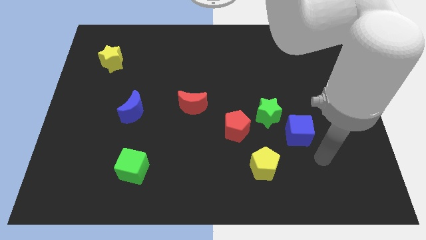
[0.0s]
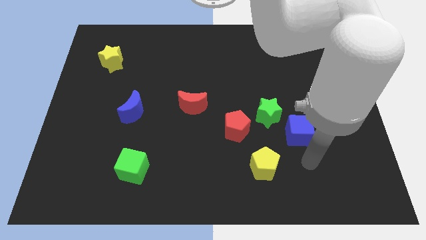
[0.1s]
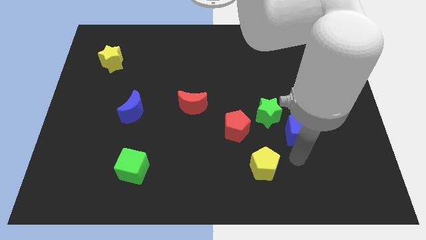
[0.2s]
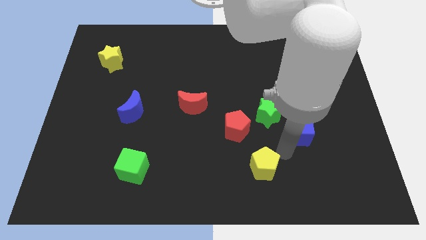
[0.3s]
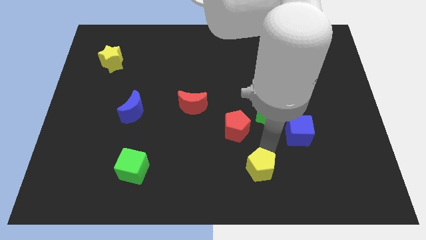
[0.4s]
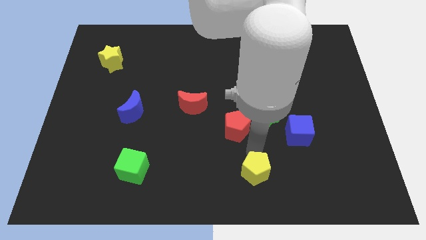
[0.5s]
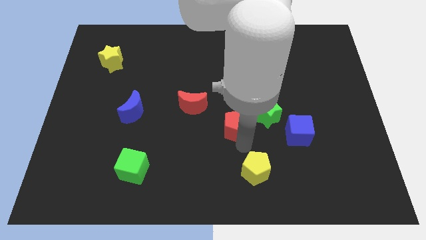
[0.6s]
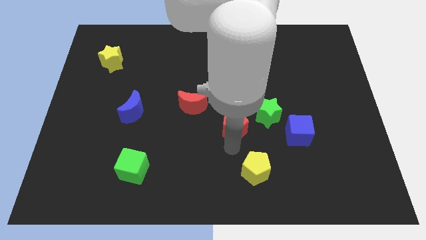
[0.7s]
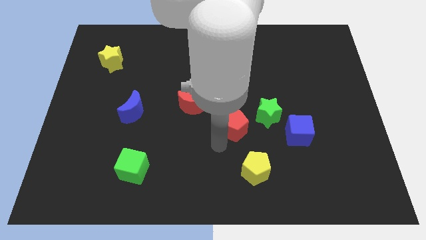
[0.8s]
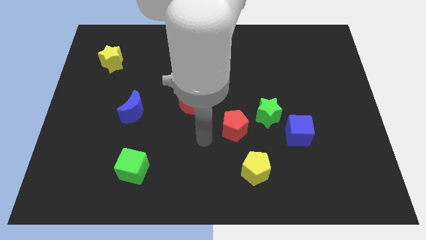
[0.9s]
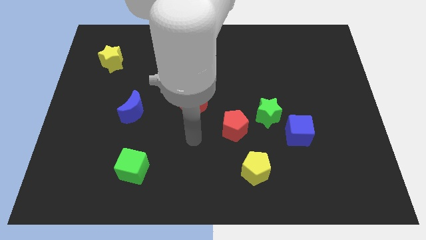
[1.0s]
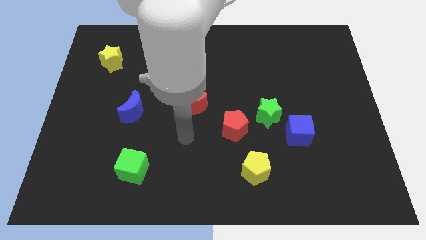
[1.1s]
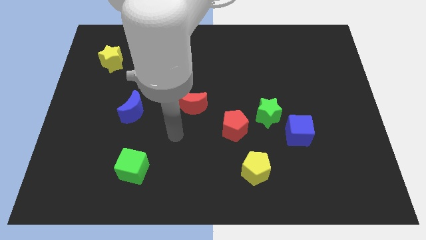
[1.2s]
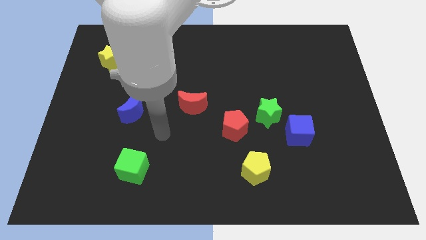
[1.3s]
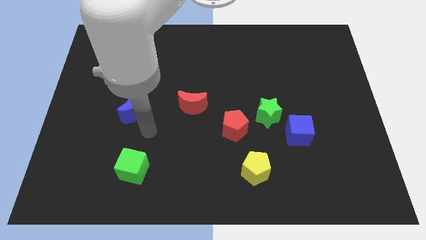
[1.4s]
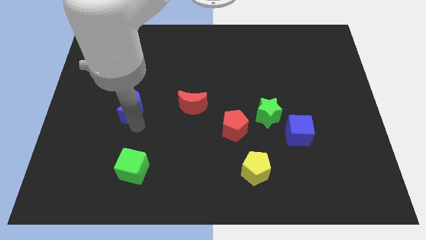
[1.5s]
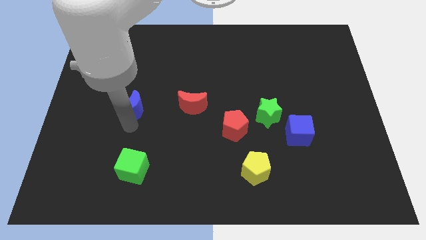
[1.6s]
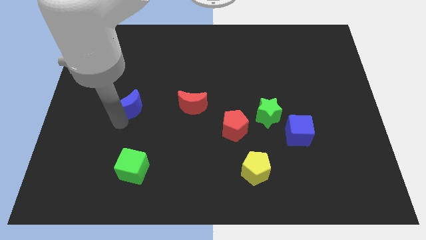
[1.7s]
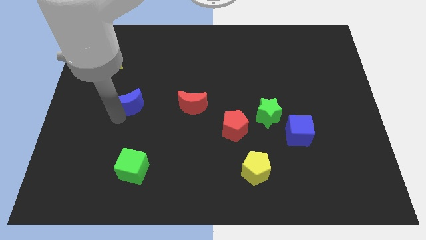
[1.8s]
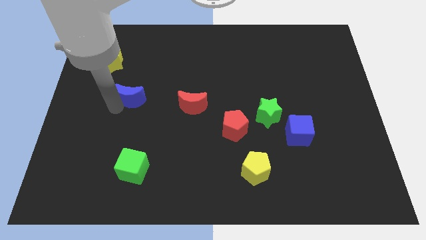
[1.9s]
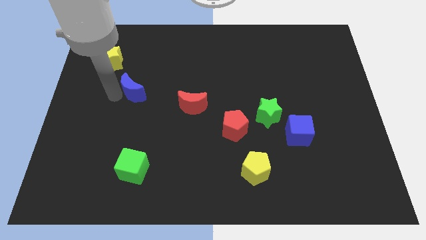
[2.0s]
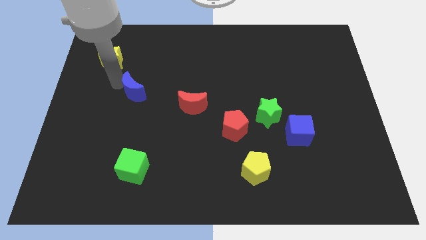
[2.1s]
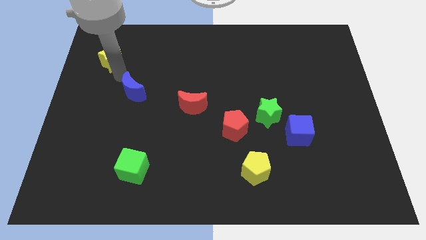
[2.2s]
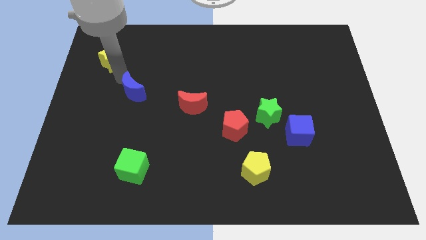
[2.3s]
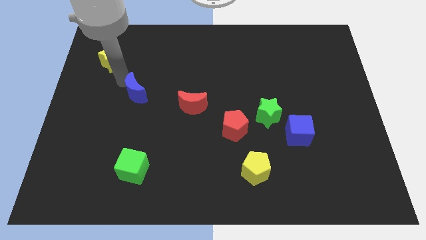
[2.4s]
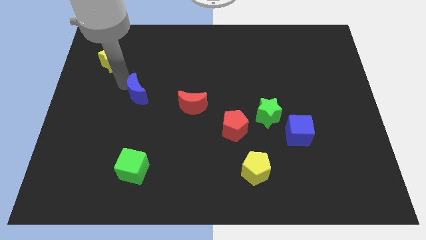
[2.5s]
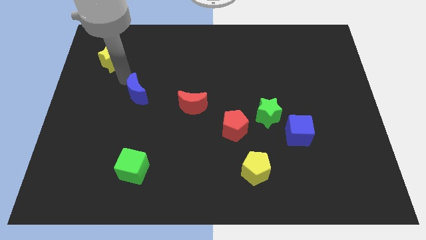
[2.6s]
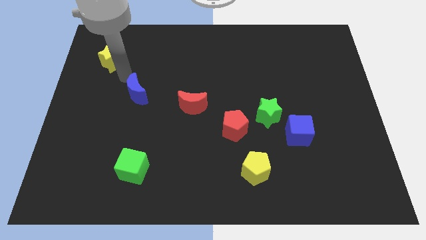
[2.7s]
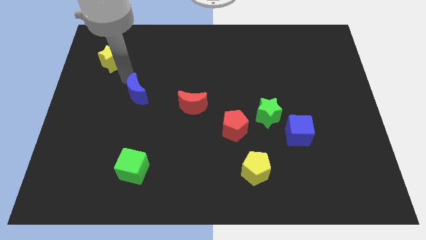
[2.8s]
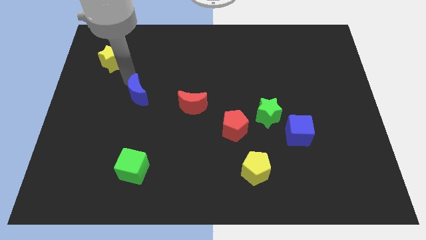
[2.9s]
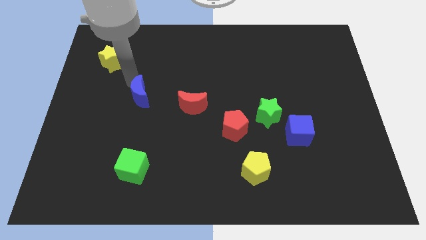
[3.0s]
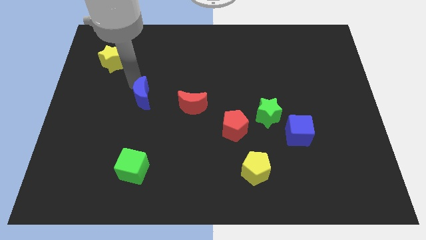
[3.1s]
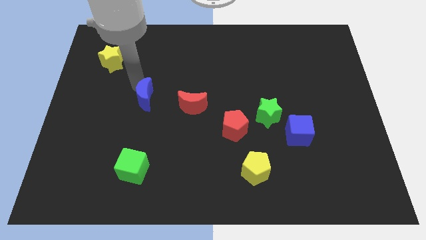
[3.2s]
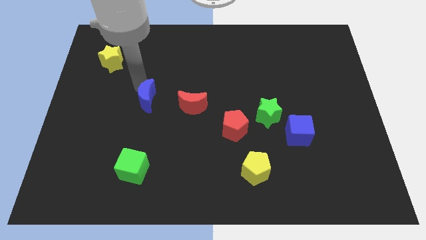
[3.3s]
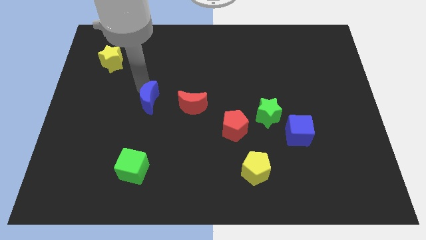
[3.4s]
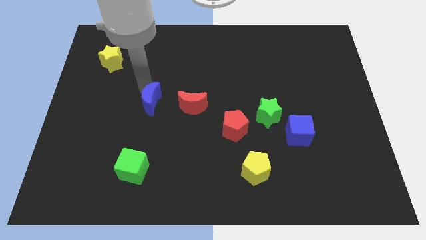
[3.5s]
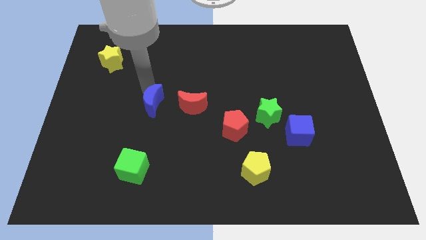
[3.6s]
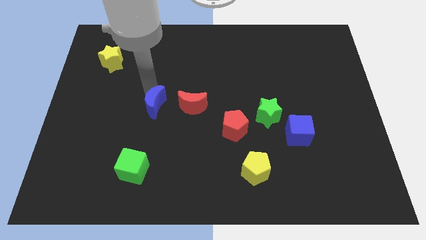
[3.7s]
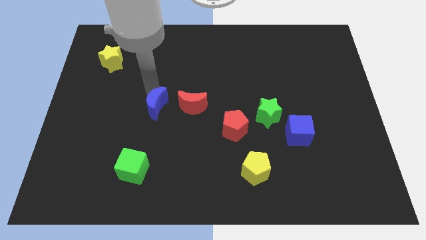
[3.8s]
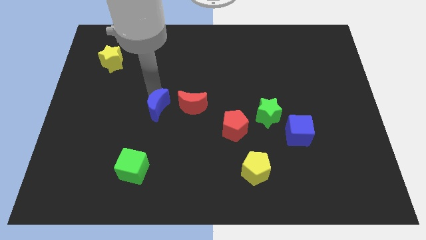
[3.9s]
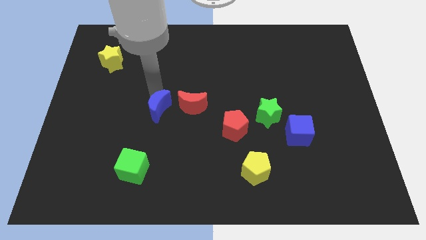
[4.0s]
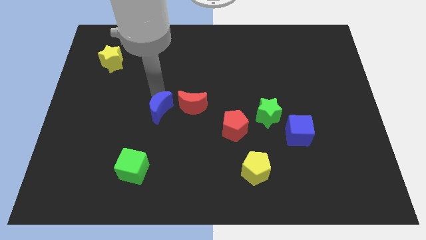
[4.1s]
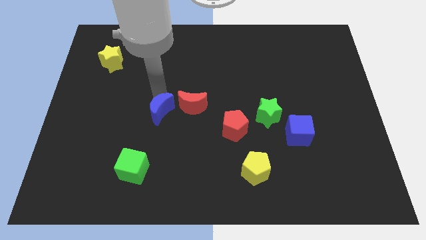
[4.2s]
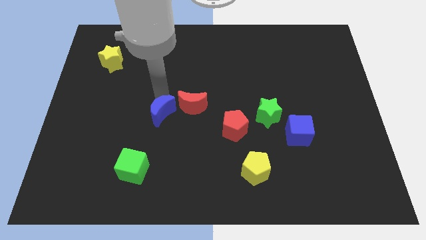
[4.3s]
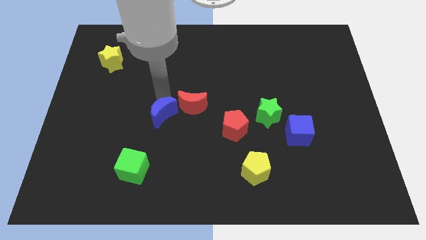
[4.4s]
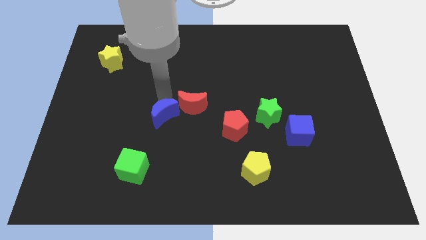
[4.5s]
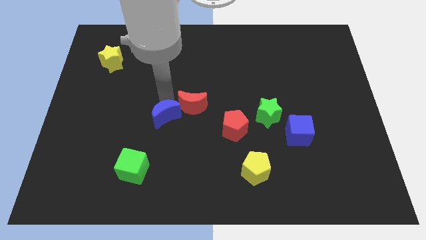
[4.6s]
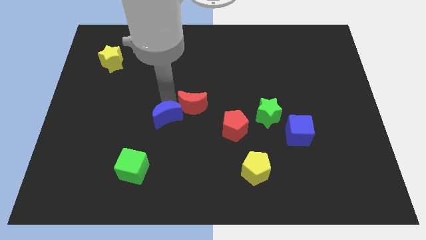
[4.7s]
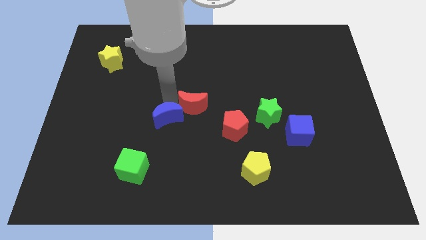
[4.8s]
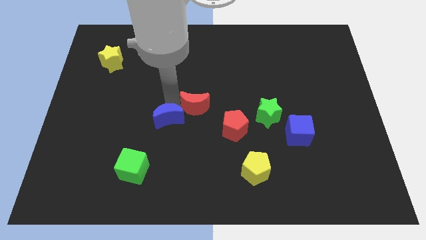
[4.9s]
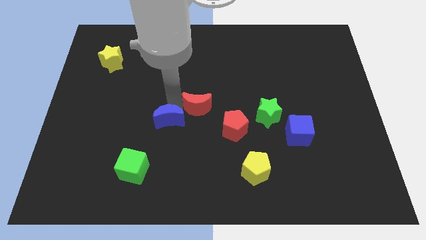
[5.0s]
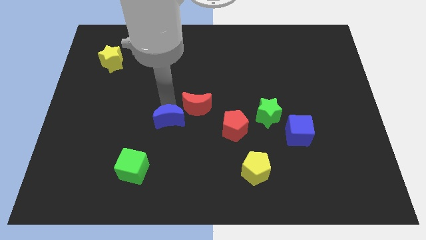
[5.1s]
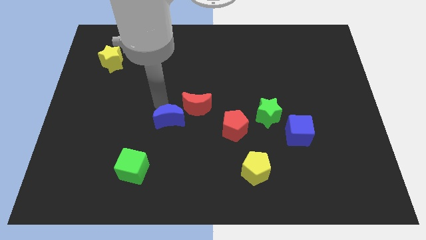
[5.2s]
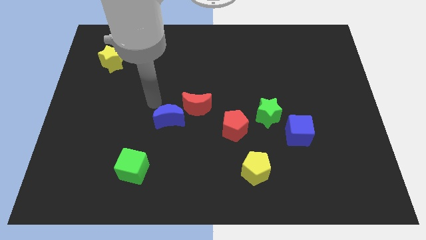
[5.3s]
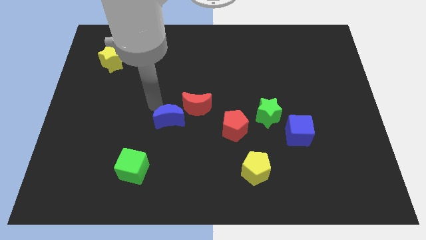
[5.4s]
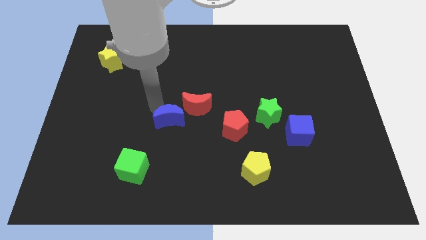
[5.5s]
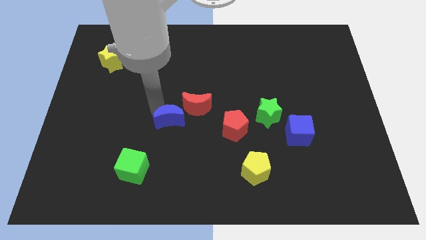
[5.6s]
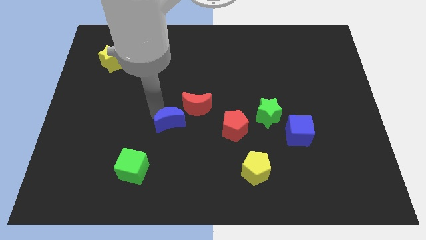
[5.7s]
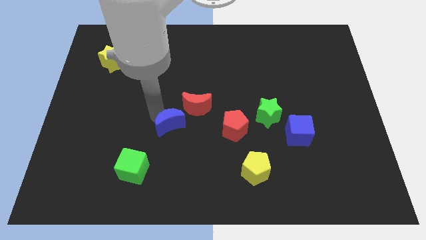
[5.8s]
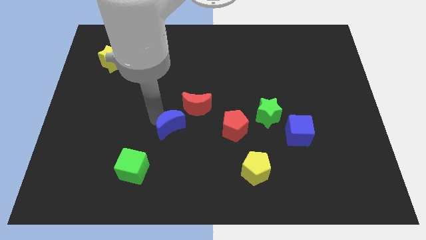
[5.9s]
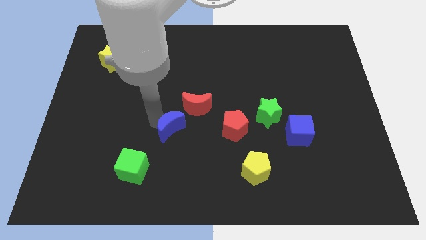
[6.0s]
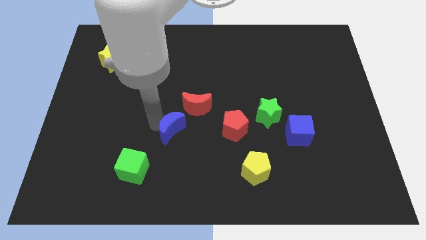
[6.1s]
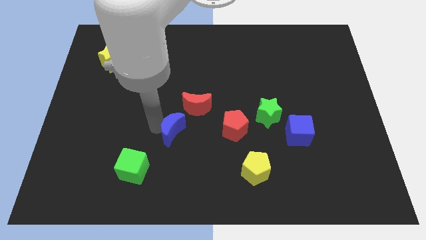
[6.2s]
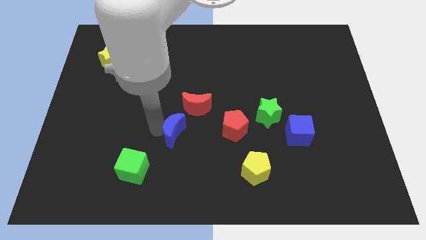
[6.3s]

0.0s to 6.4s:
put the blue moon to the bottom of the red moon
